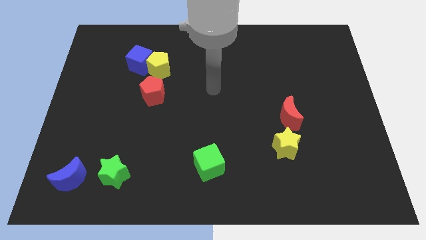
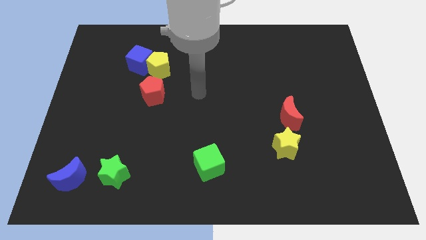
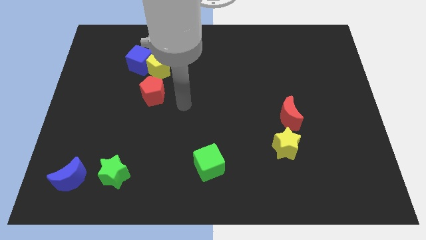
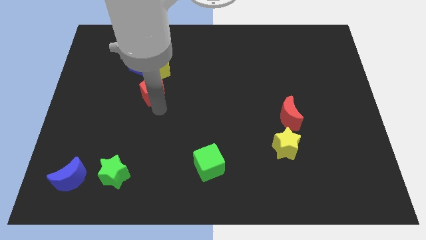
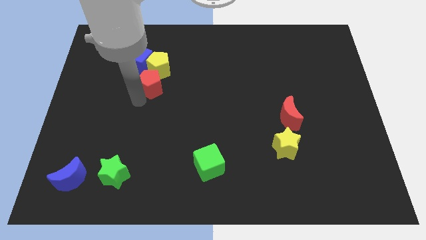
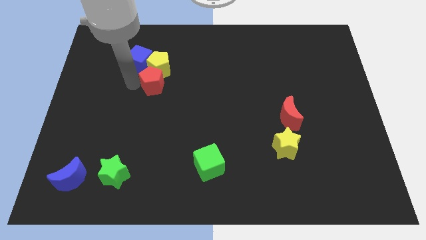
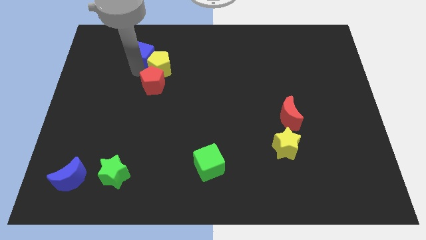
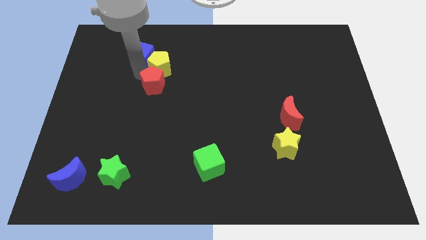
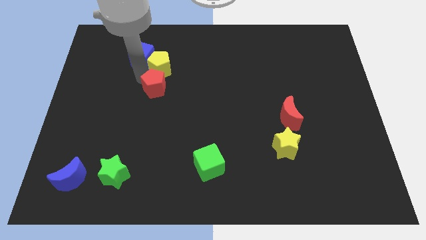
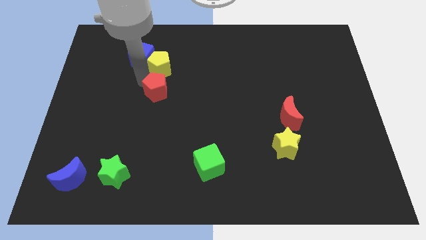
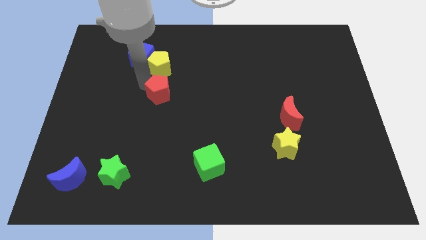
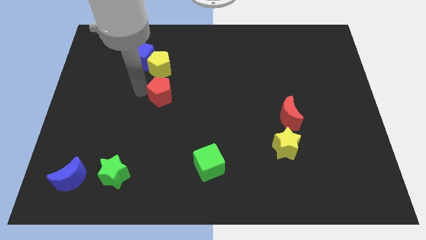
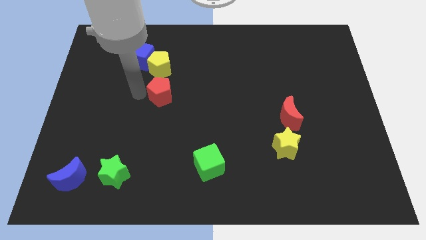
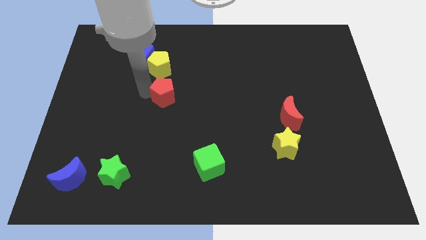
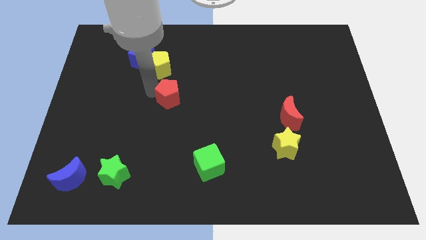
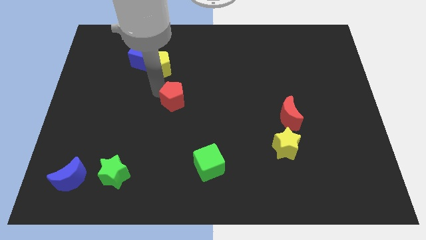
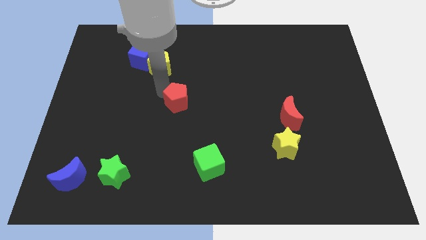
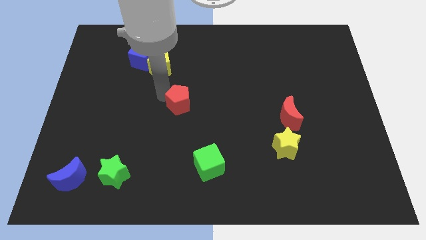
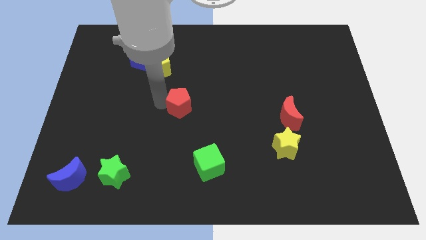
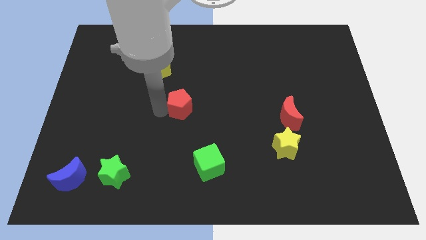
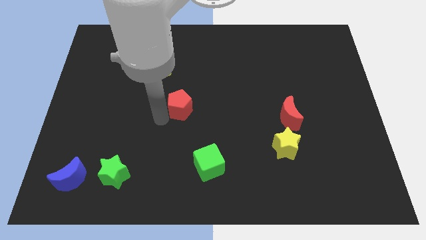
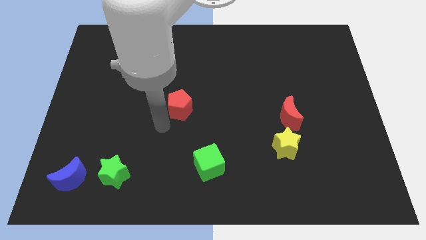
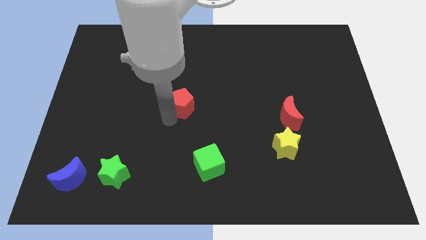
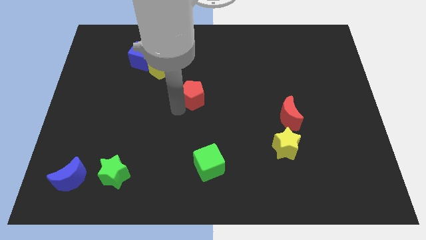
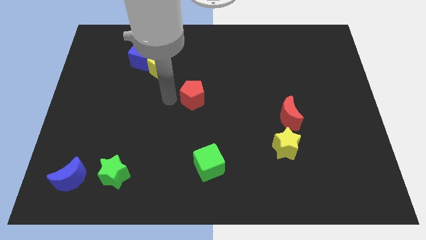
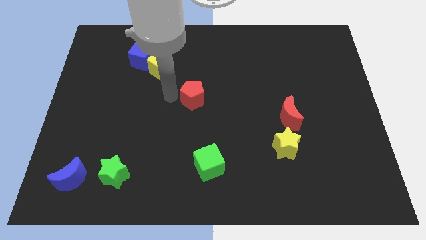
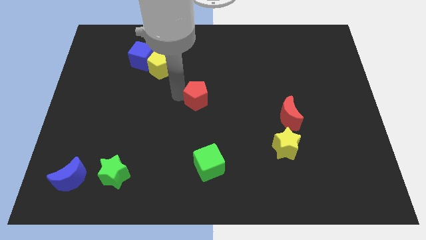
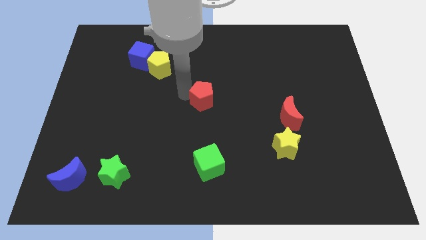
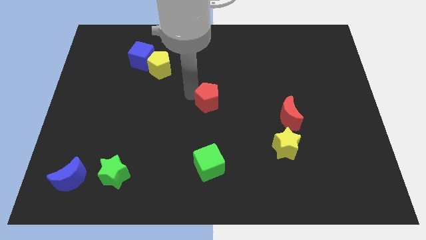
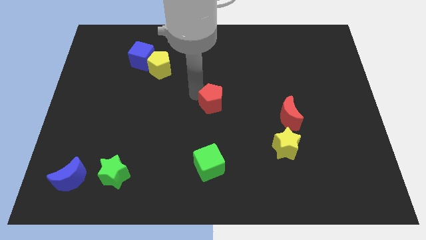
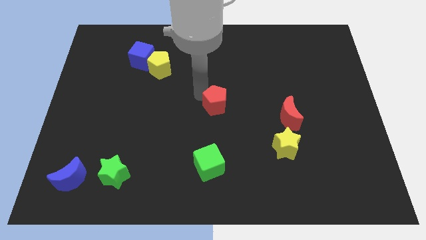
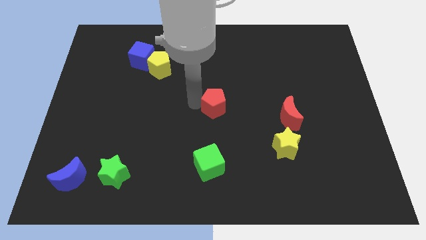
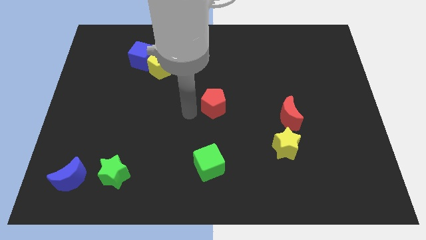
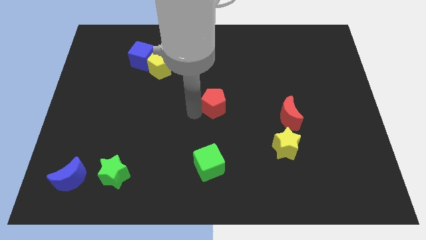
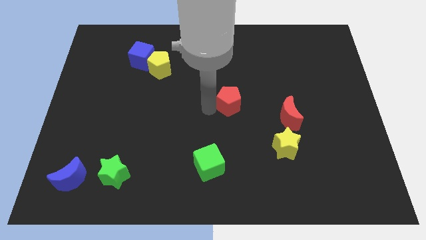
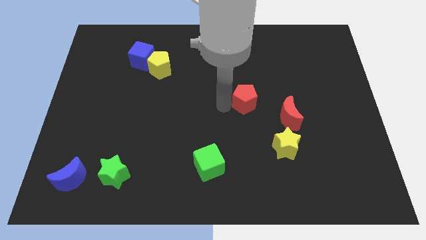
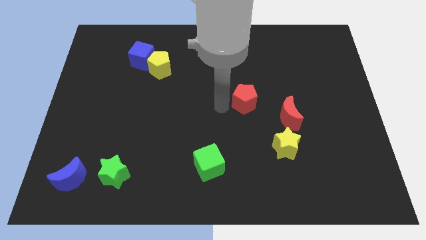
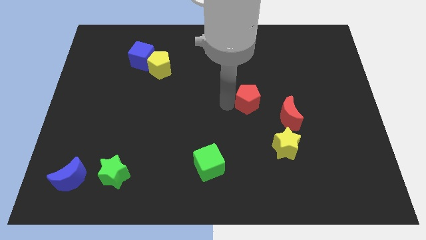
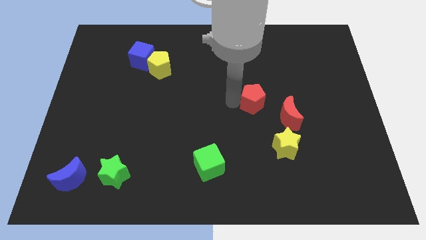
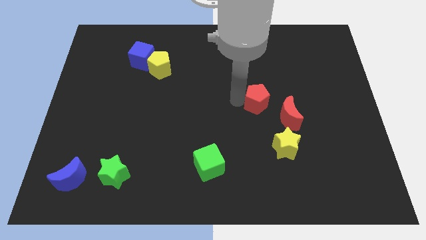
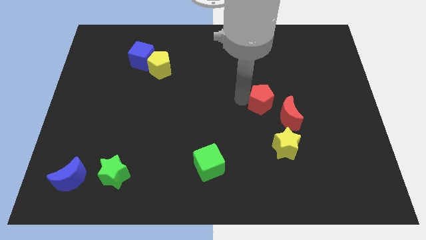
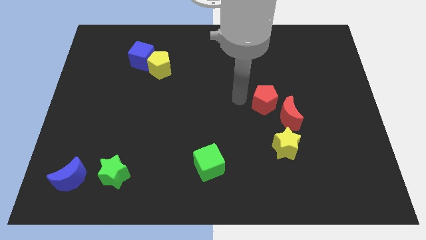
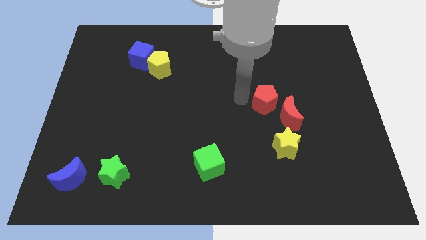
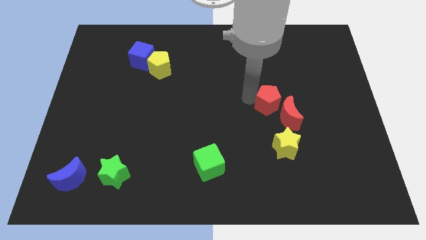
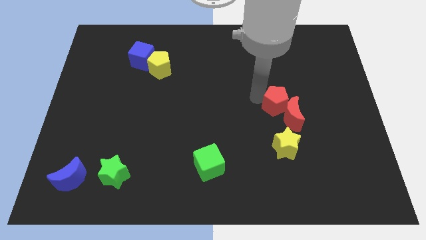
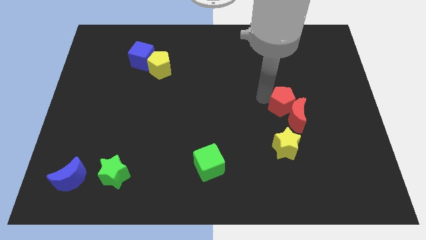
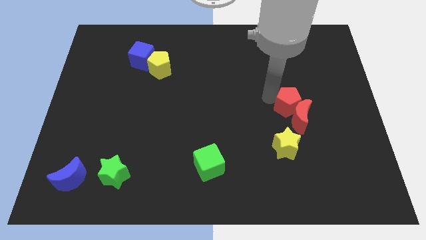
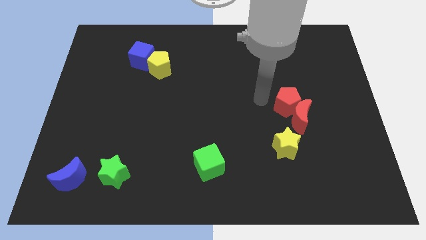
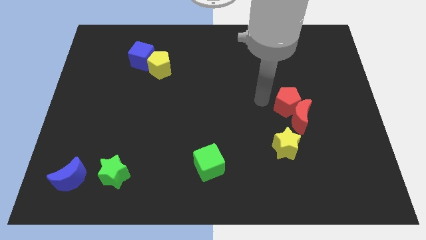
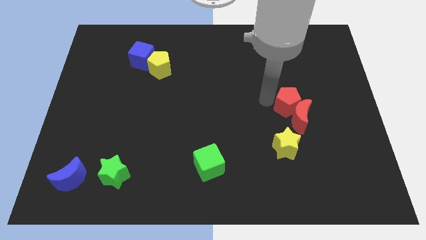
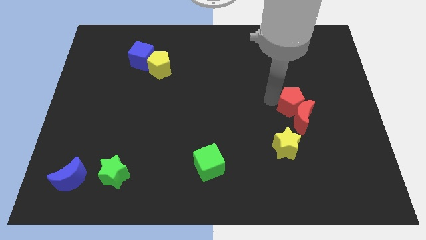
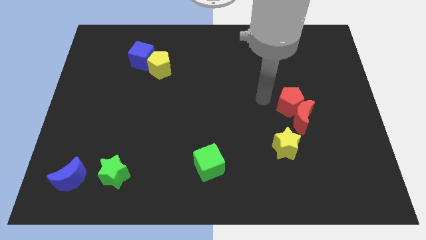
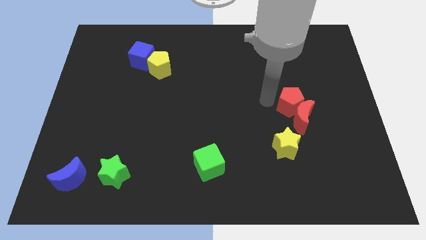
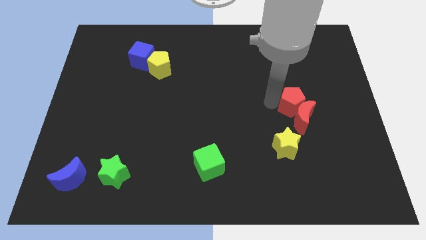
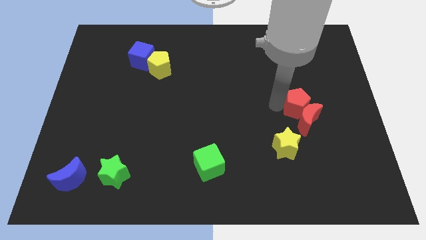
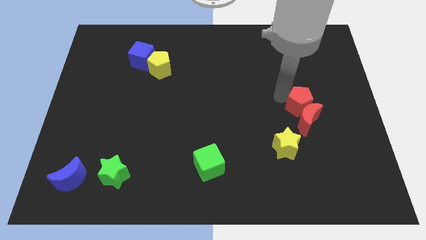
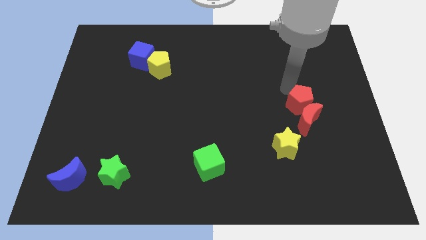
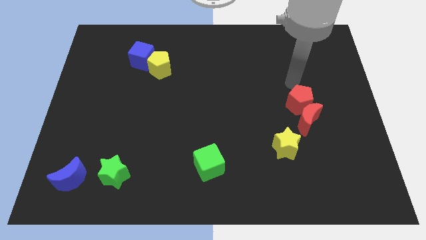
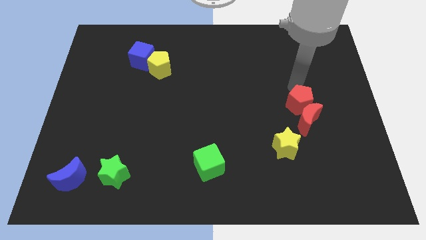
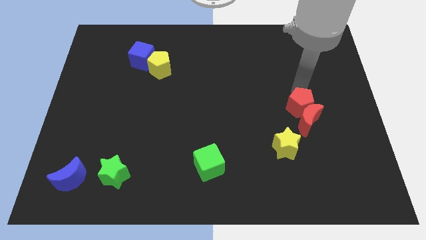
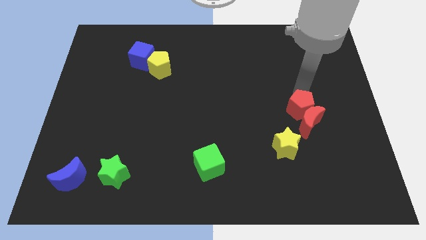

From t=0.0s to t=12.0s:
put the red pentagon diagonally up and to the right of the yellow star

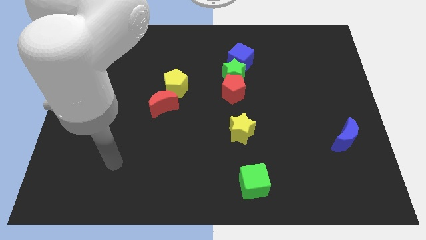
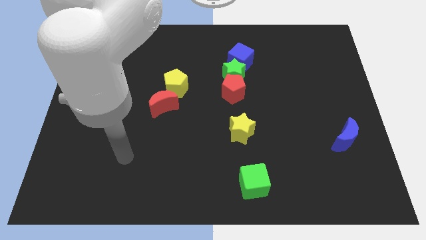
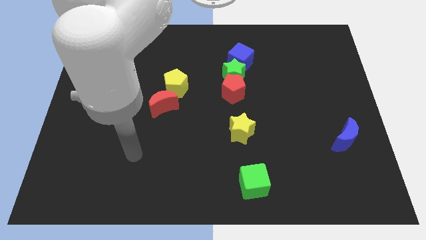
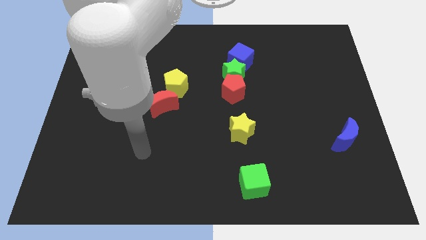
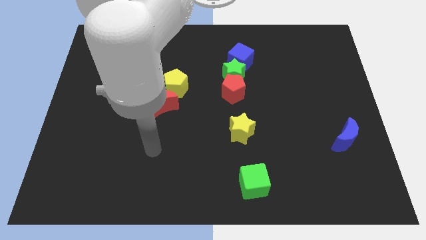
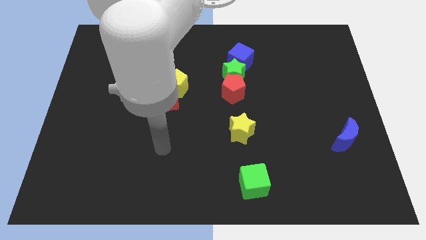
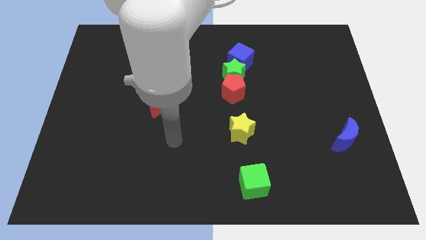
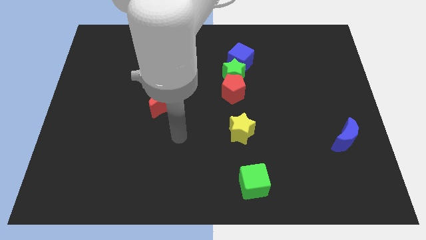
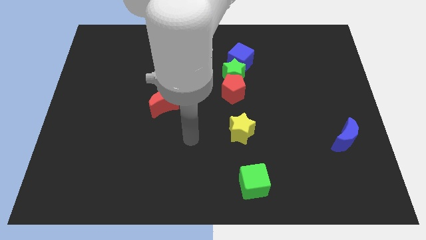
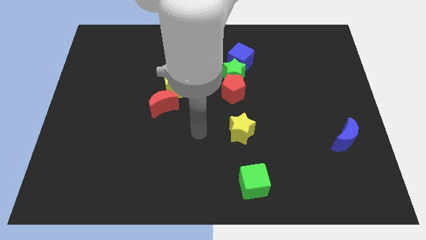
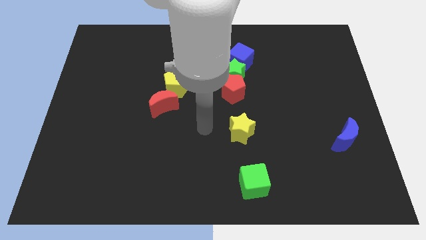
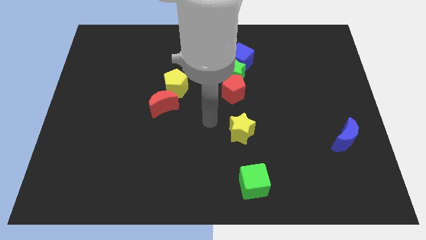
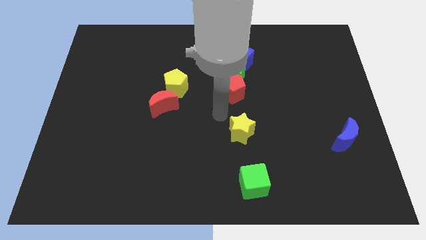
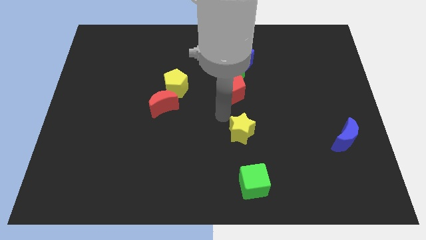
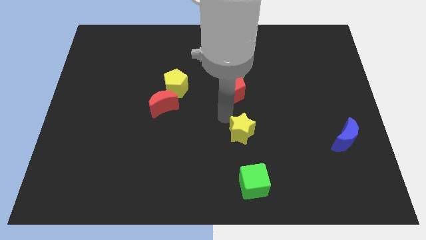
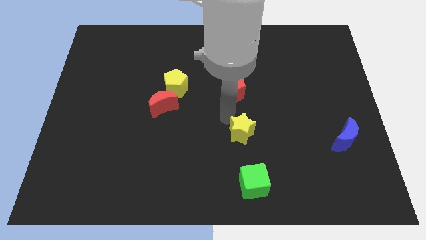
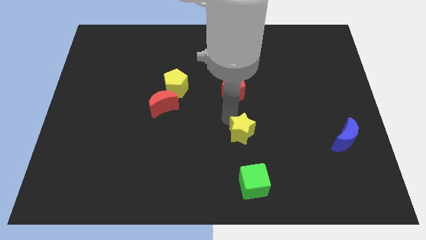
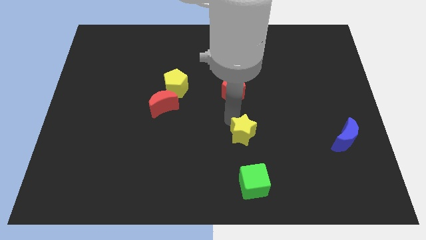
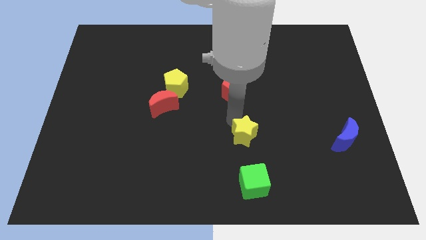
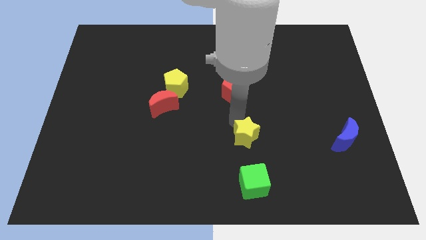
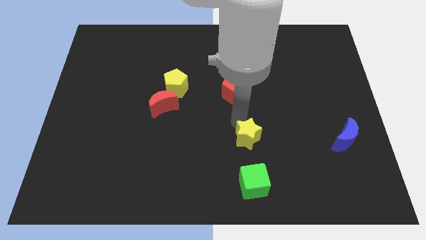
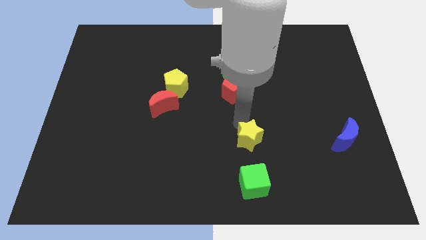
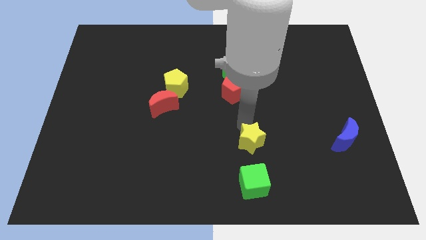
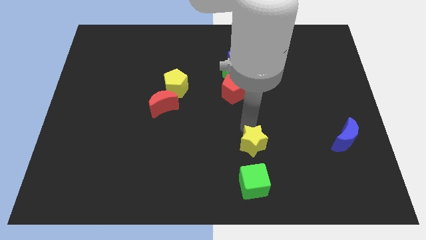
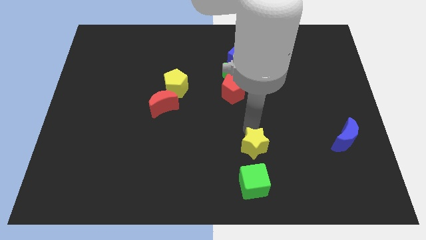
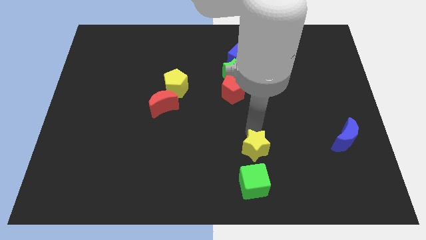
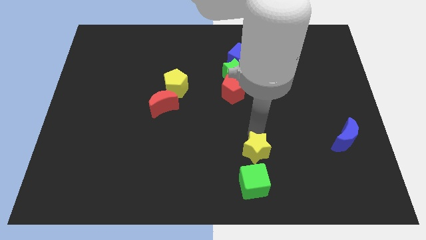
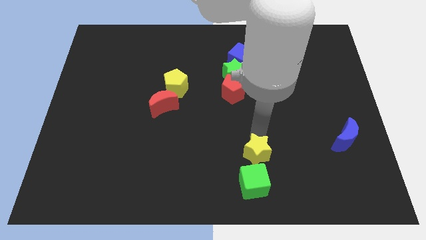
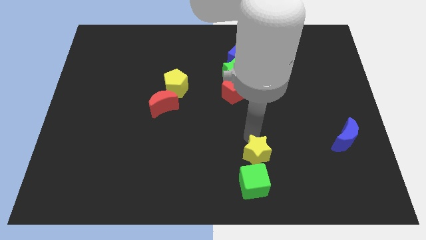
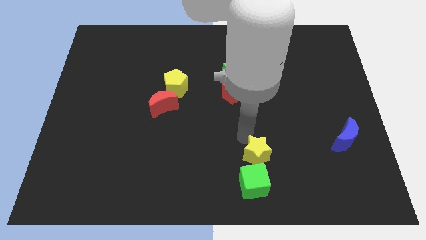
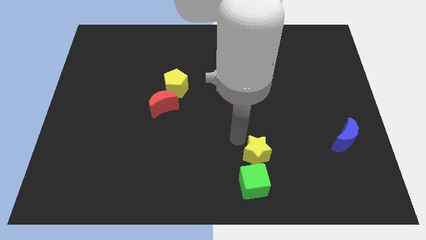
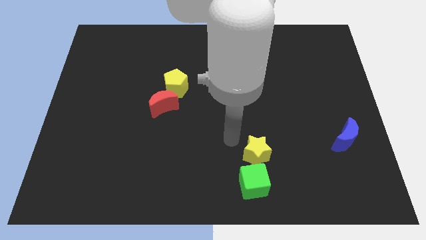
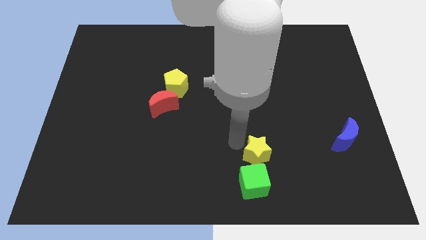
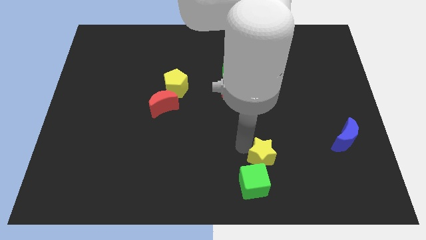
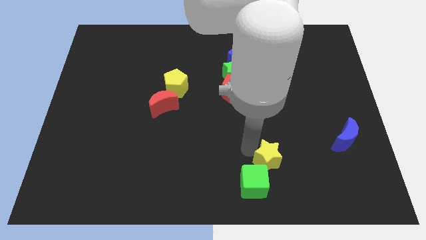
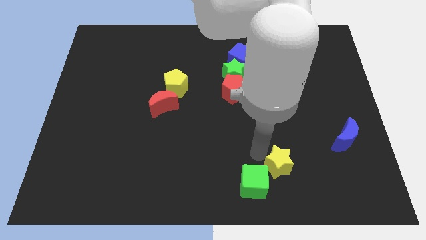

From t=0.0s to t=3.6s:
slide the yellow star to the right of the green cube
